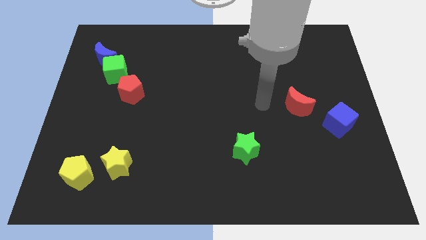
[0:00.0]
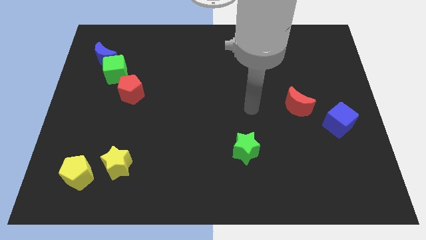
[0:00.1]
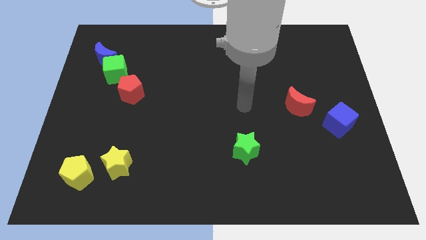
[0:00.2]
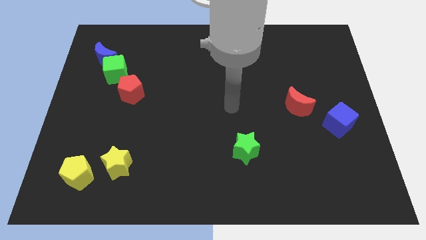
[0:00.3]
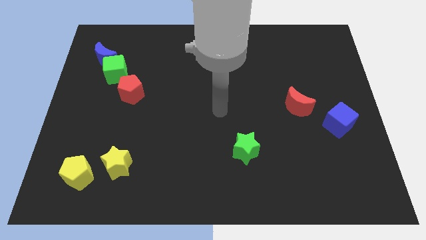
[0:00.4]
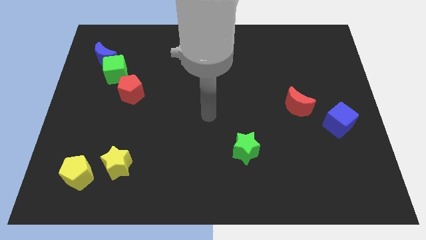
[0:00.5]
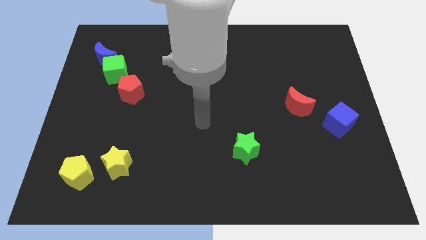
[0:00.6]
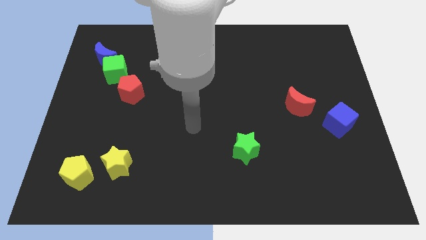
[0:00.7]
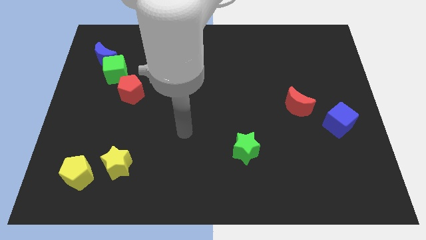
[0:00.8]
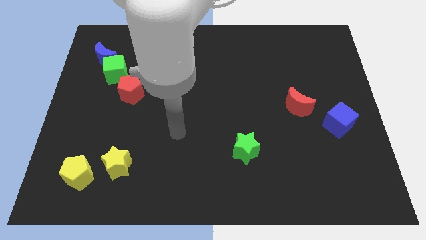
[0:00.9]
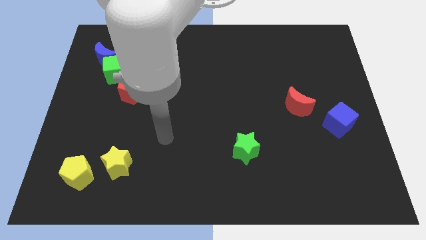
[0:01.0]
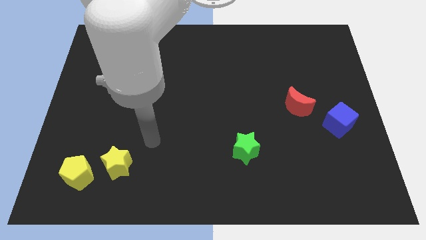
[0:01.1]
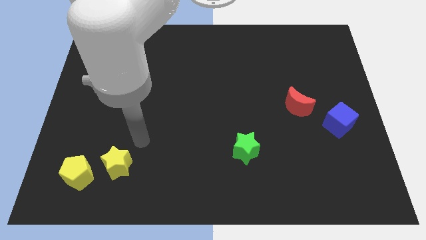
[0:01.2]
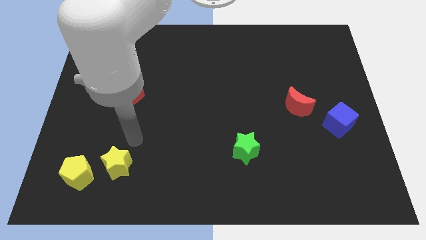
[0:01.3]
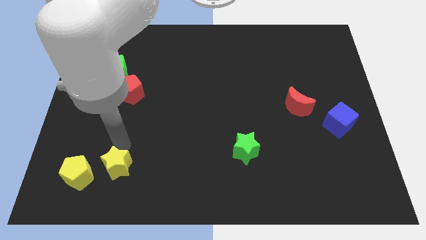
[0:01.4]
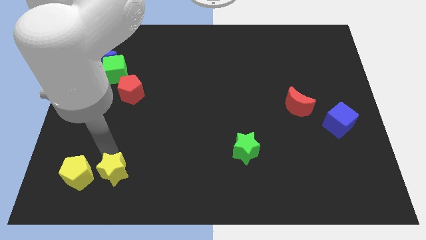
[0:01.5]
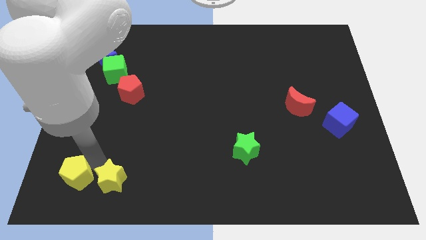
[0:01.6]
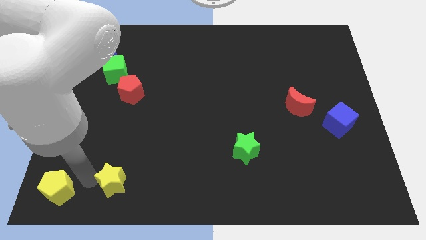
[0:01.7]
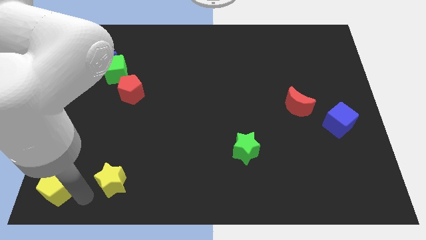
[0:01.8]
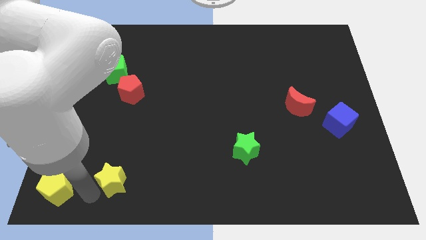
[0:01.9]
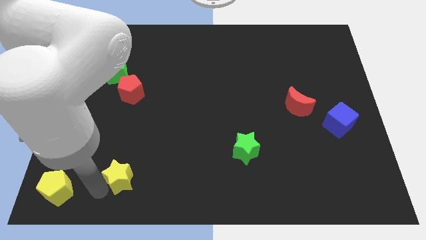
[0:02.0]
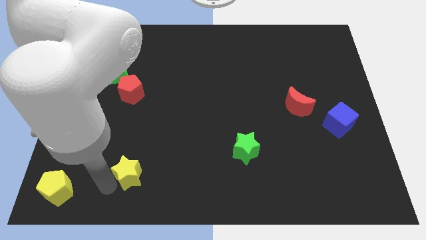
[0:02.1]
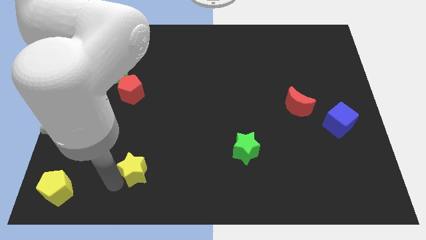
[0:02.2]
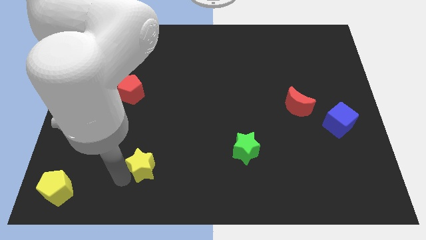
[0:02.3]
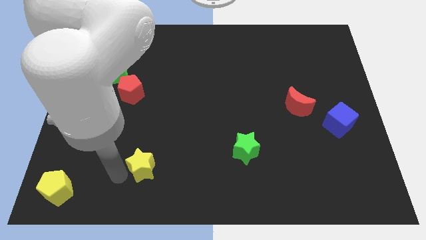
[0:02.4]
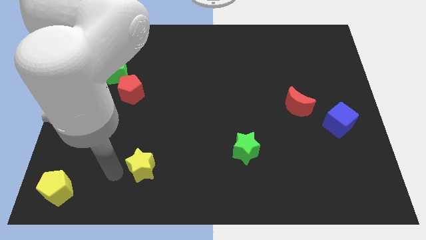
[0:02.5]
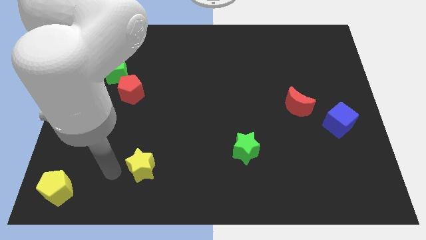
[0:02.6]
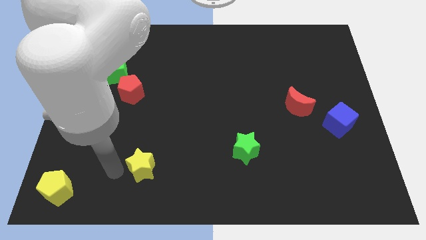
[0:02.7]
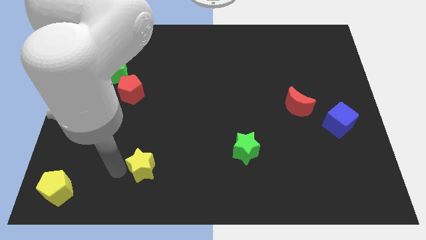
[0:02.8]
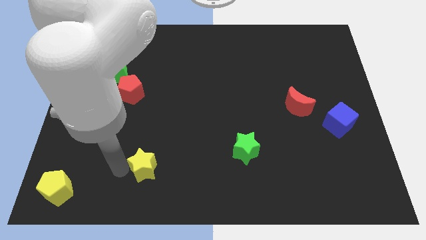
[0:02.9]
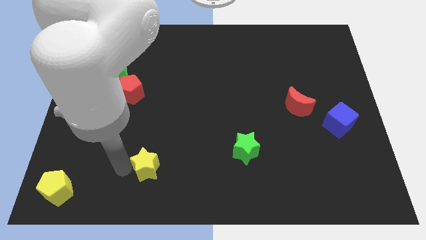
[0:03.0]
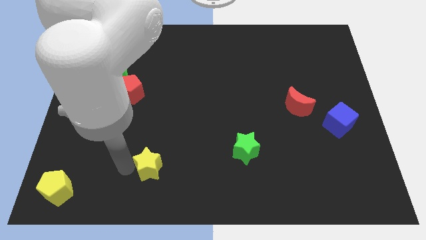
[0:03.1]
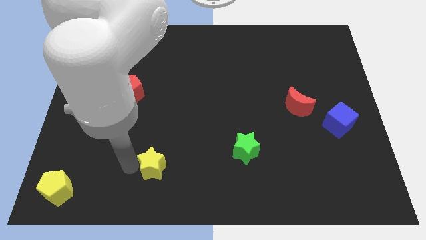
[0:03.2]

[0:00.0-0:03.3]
move the yellow star right a bit

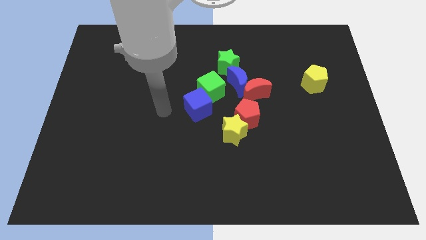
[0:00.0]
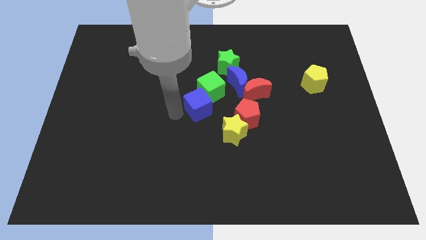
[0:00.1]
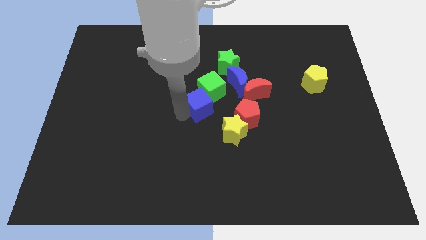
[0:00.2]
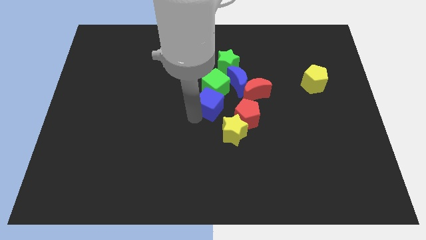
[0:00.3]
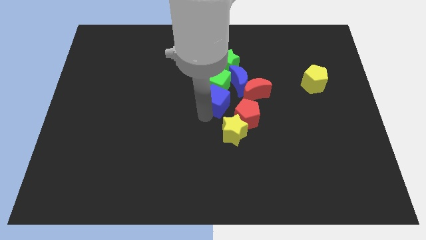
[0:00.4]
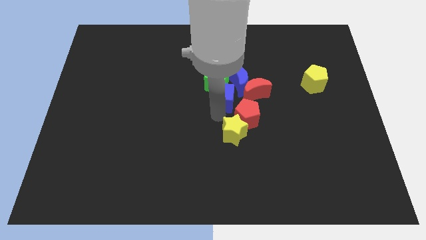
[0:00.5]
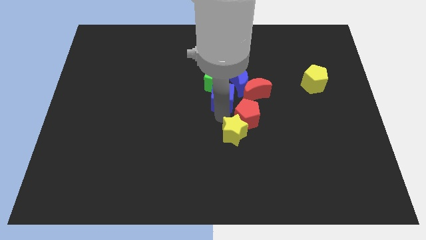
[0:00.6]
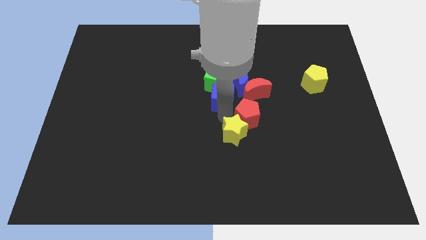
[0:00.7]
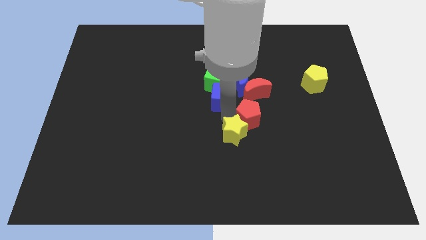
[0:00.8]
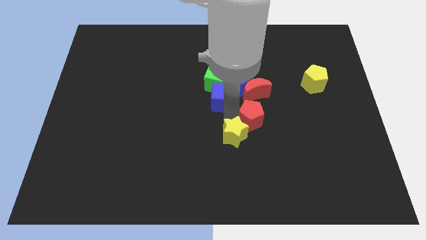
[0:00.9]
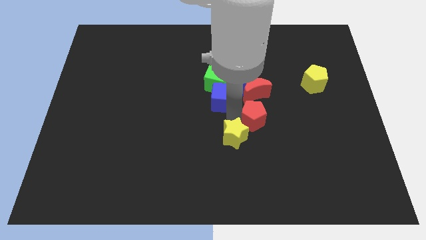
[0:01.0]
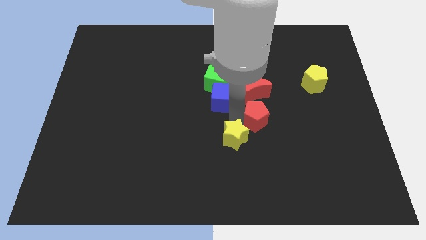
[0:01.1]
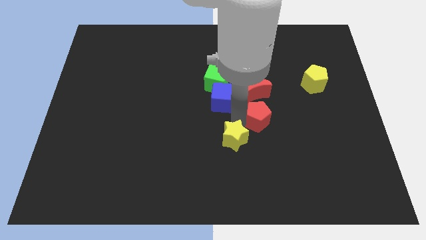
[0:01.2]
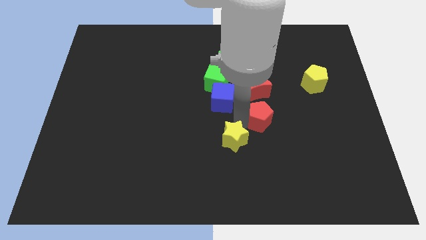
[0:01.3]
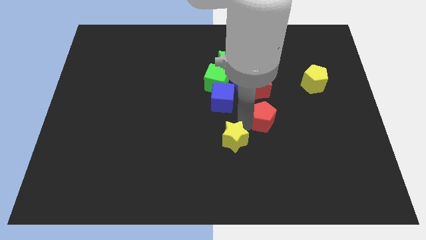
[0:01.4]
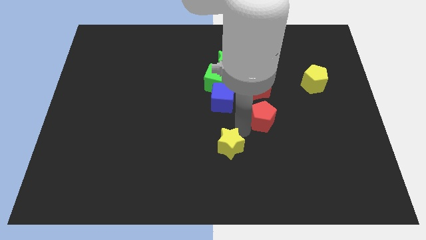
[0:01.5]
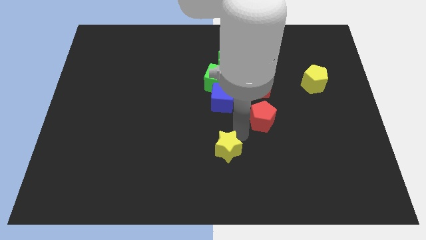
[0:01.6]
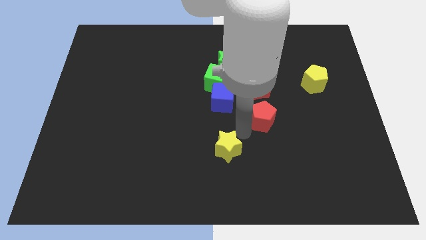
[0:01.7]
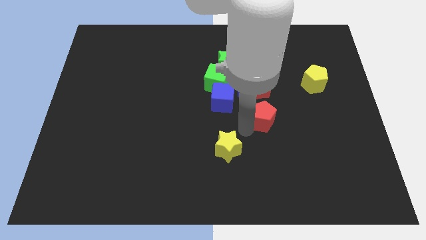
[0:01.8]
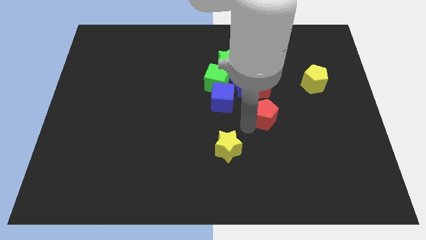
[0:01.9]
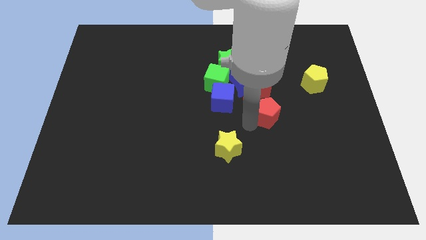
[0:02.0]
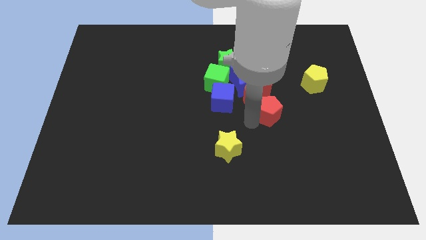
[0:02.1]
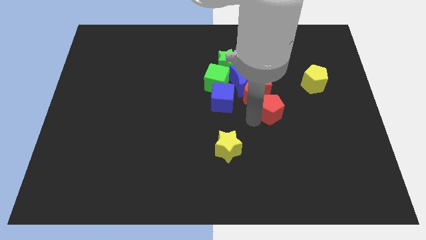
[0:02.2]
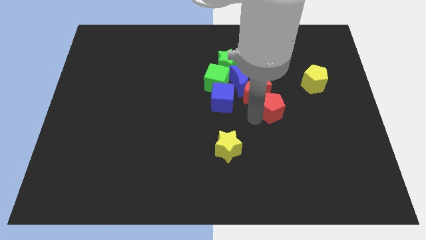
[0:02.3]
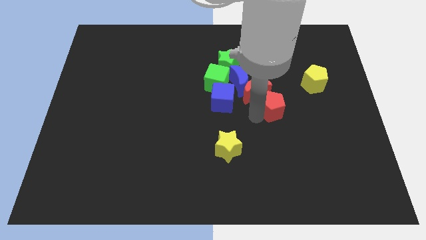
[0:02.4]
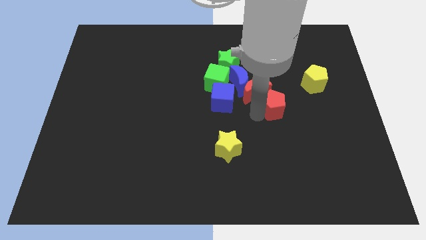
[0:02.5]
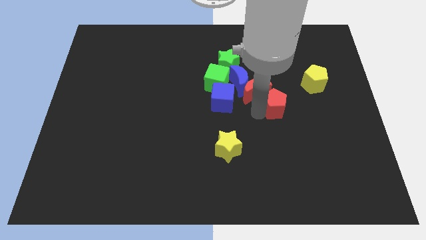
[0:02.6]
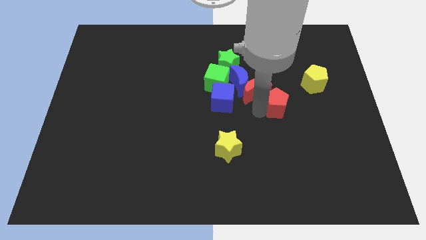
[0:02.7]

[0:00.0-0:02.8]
push the red pentagon slightly up and then right

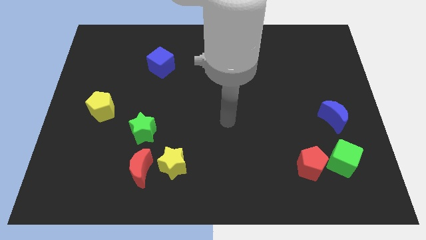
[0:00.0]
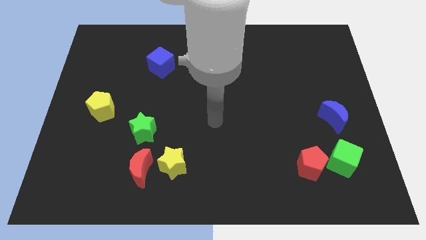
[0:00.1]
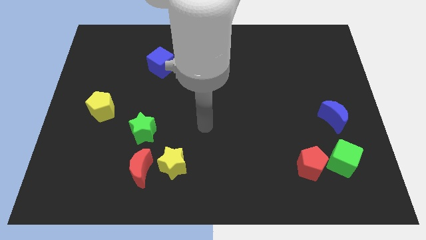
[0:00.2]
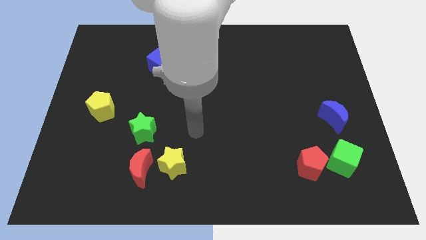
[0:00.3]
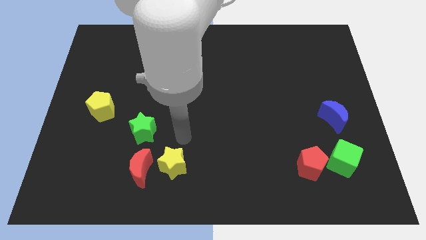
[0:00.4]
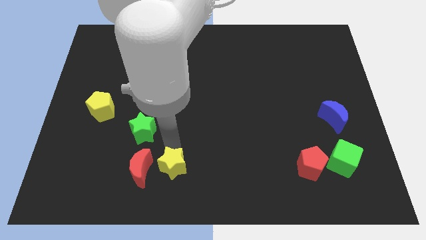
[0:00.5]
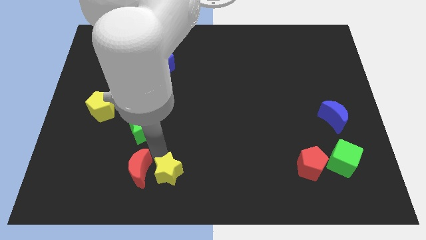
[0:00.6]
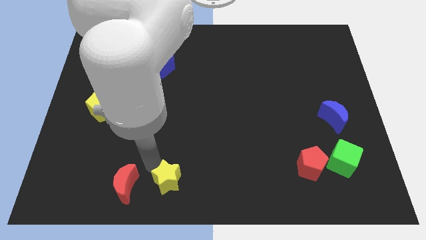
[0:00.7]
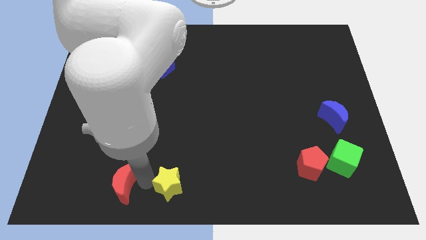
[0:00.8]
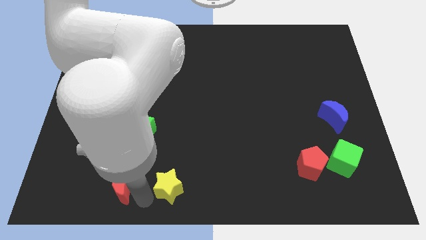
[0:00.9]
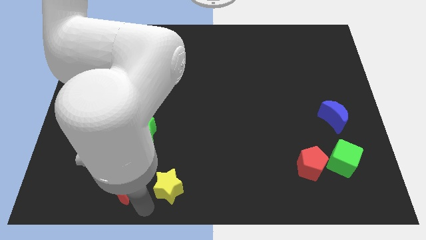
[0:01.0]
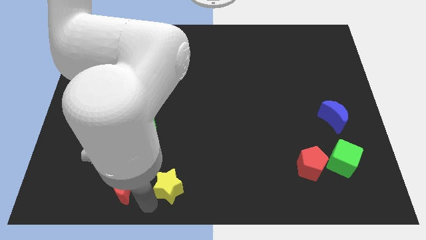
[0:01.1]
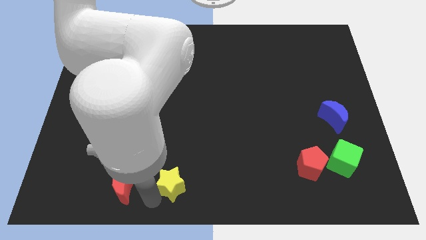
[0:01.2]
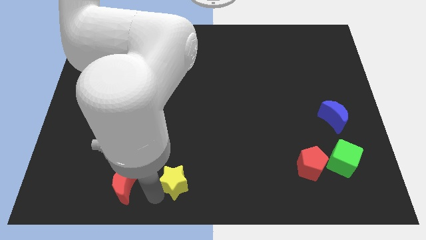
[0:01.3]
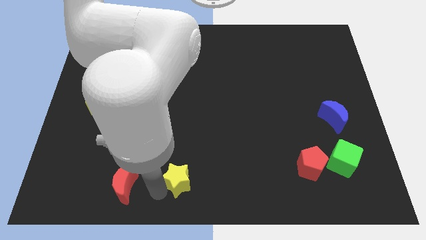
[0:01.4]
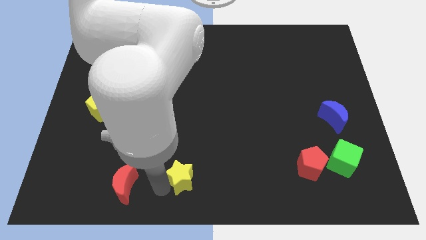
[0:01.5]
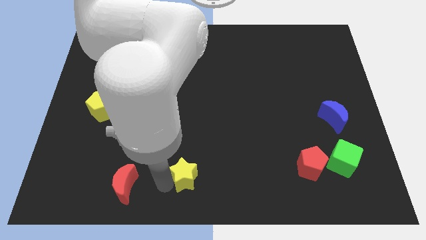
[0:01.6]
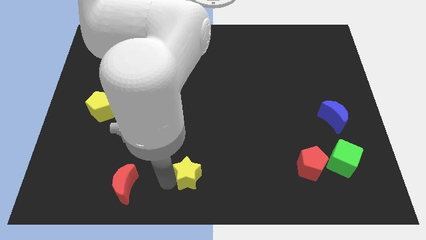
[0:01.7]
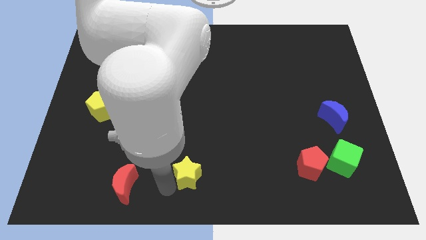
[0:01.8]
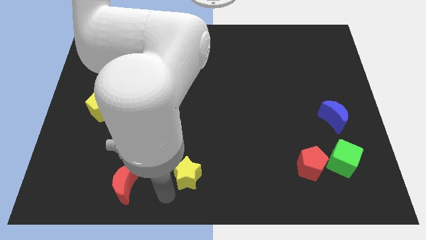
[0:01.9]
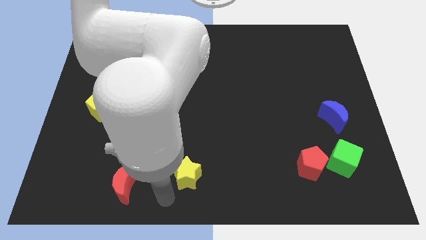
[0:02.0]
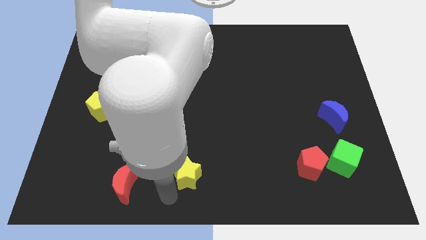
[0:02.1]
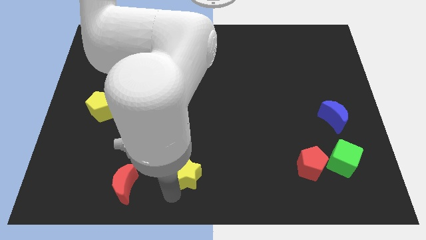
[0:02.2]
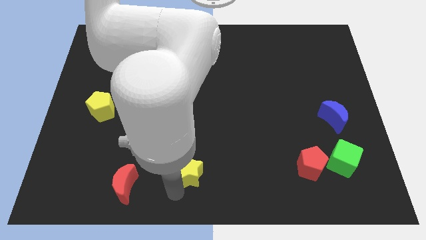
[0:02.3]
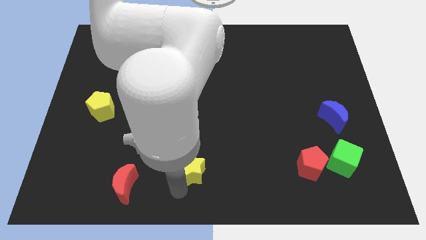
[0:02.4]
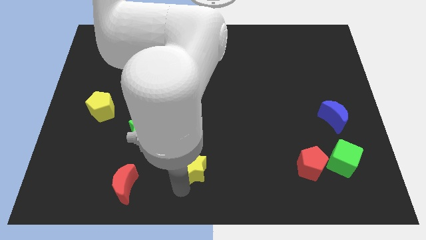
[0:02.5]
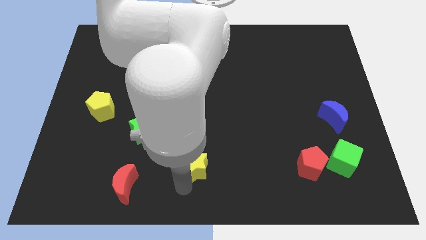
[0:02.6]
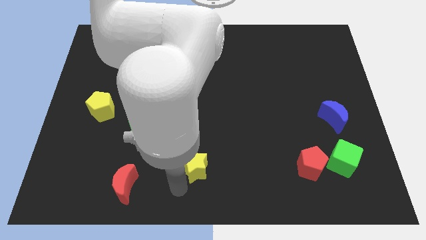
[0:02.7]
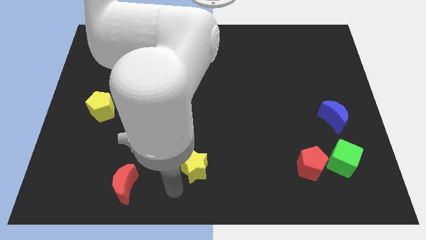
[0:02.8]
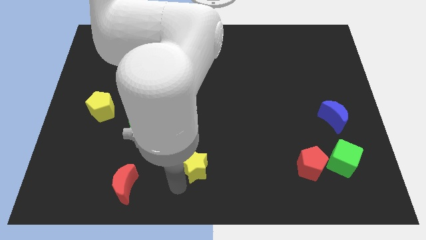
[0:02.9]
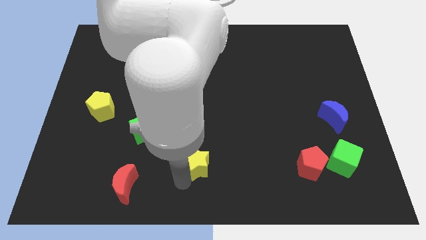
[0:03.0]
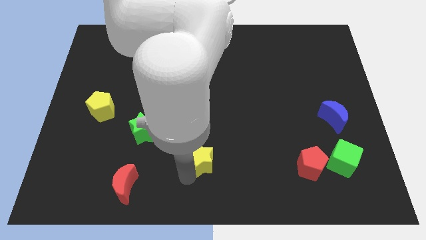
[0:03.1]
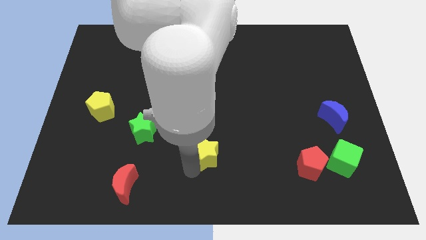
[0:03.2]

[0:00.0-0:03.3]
move the yellow star to the right a bit
